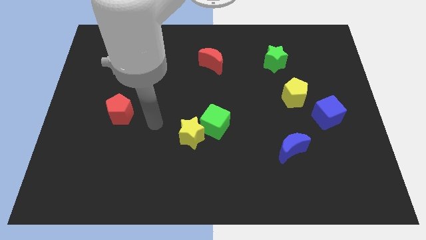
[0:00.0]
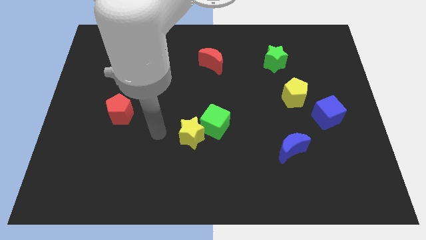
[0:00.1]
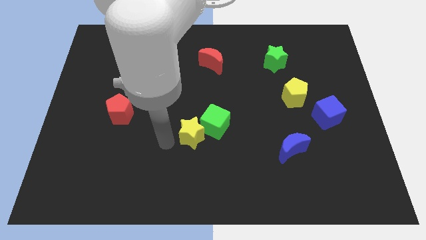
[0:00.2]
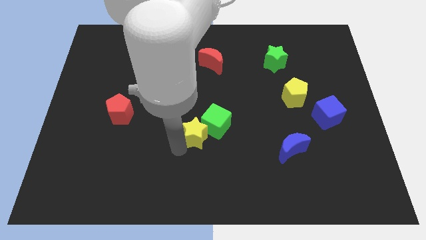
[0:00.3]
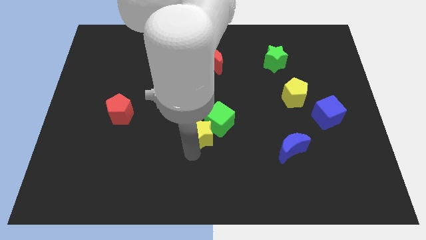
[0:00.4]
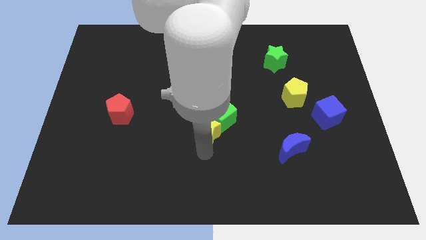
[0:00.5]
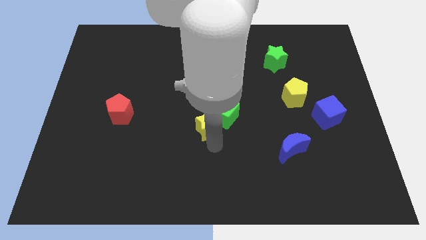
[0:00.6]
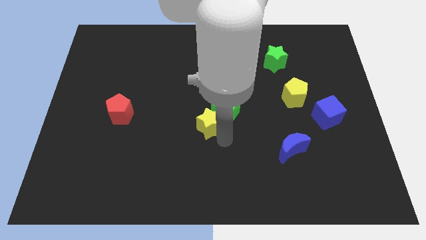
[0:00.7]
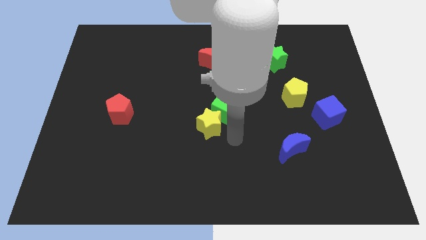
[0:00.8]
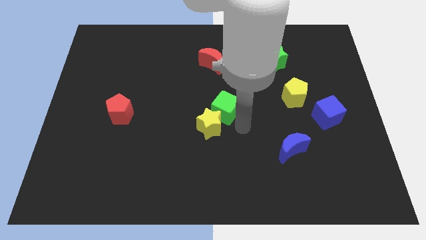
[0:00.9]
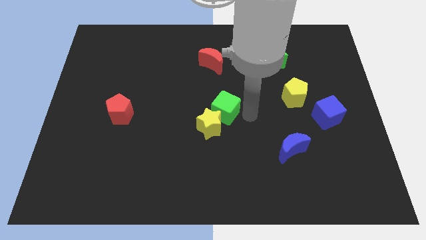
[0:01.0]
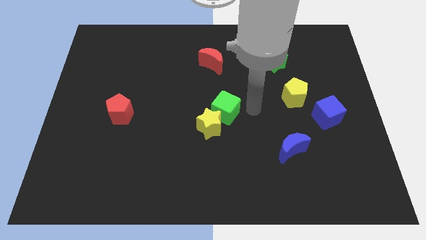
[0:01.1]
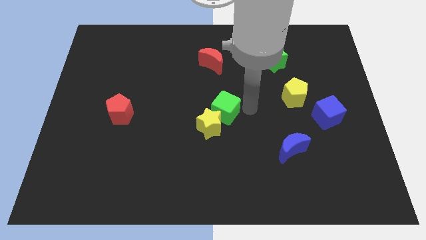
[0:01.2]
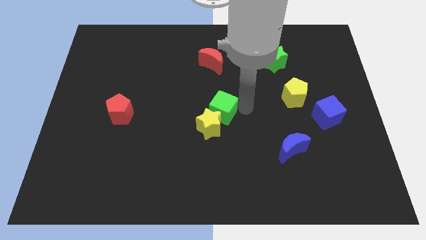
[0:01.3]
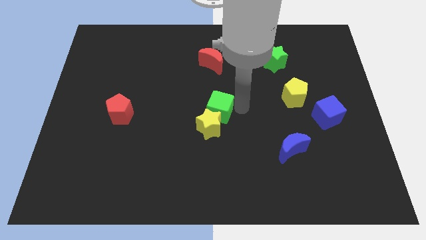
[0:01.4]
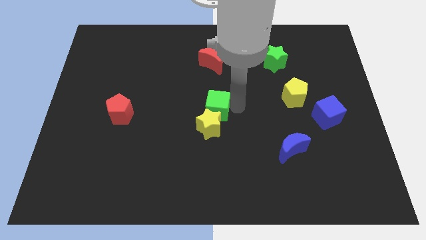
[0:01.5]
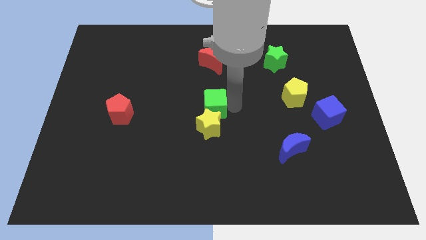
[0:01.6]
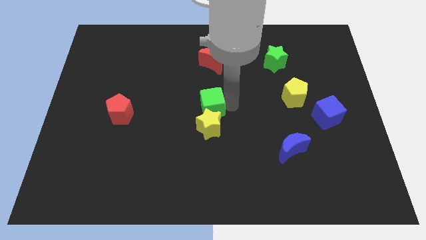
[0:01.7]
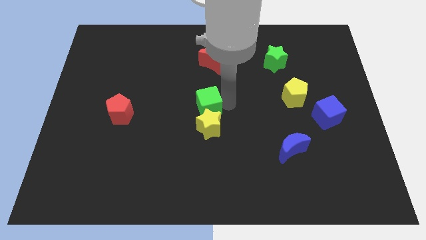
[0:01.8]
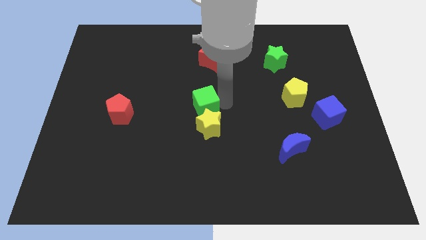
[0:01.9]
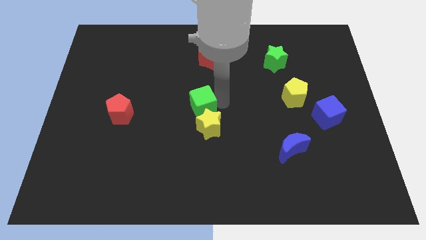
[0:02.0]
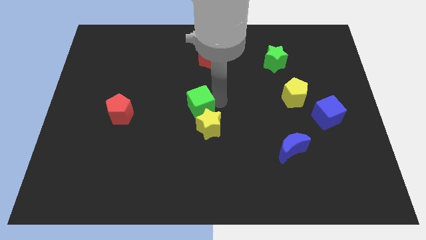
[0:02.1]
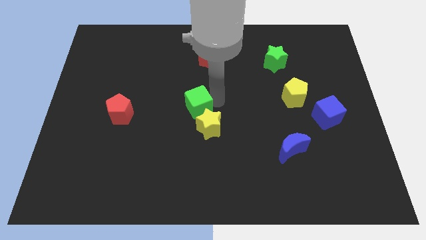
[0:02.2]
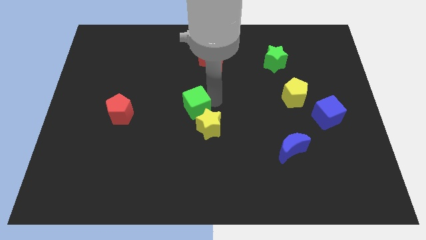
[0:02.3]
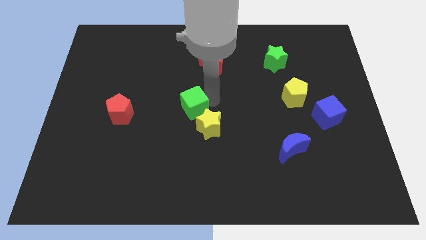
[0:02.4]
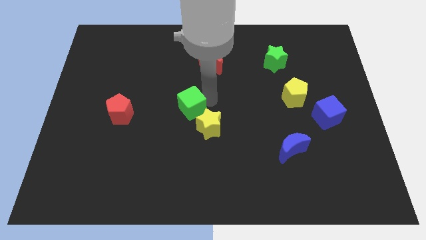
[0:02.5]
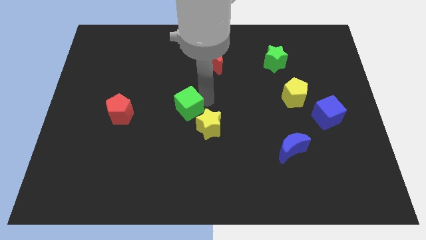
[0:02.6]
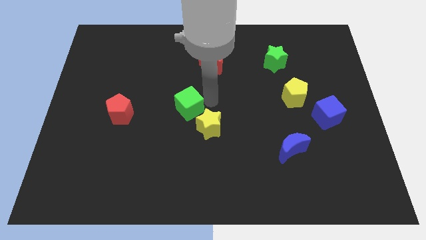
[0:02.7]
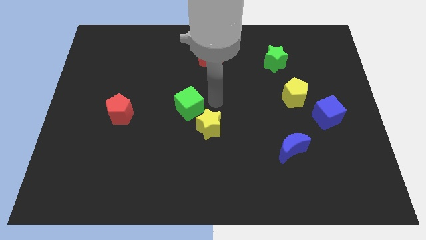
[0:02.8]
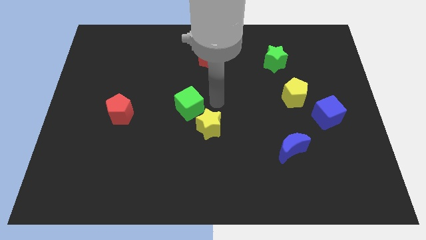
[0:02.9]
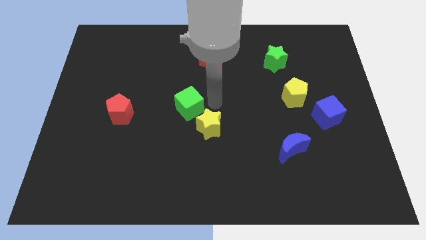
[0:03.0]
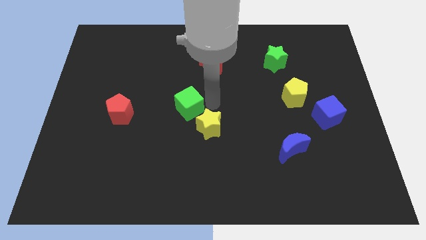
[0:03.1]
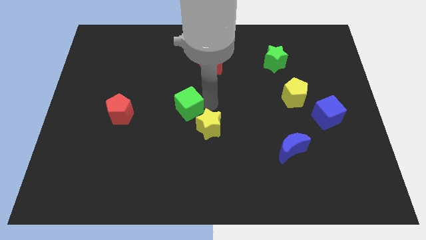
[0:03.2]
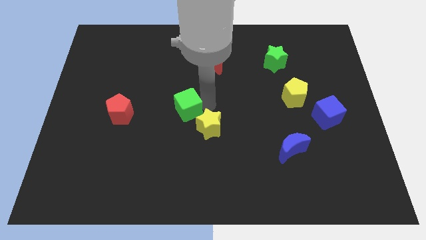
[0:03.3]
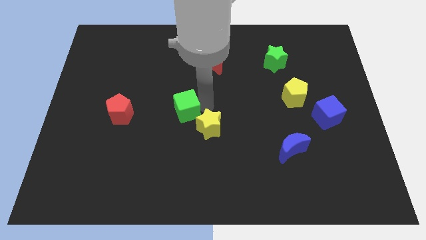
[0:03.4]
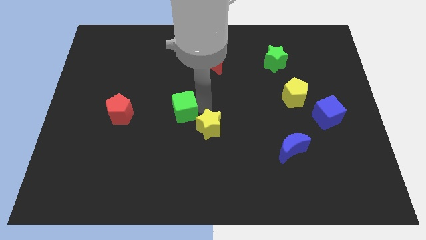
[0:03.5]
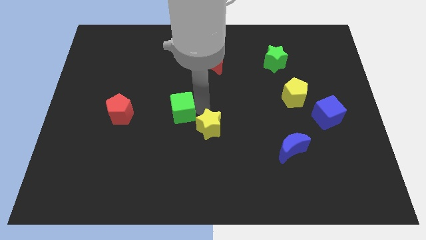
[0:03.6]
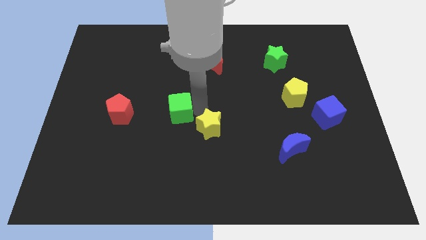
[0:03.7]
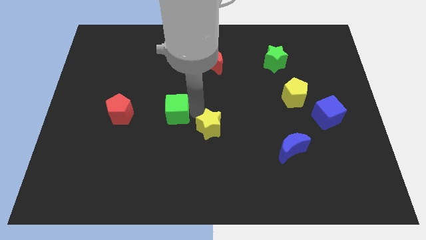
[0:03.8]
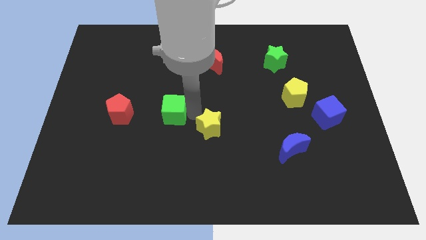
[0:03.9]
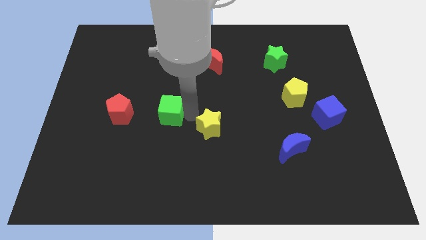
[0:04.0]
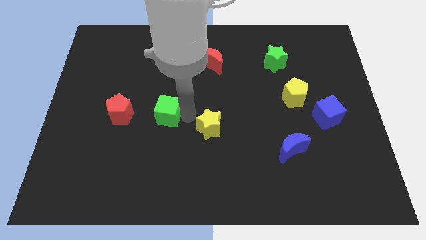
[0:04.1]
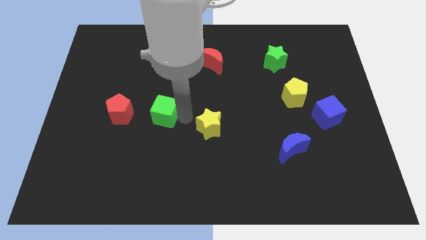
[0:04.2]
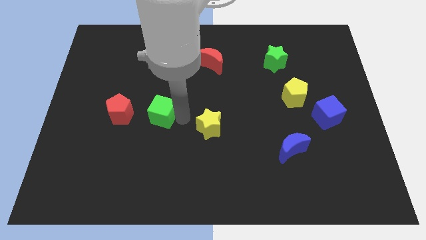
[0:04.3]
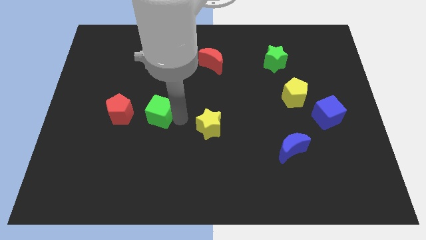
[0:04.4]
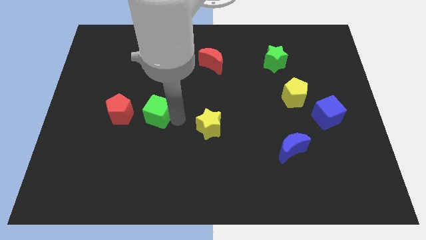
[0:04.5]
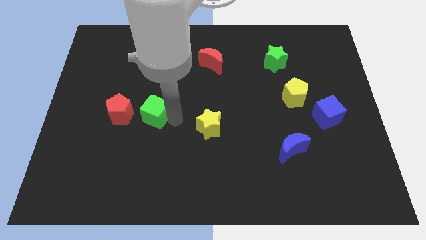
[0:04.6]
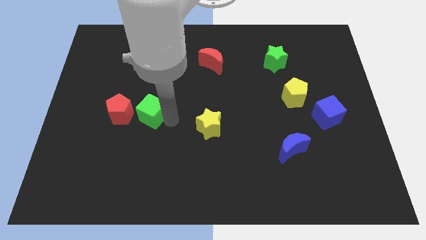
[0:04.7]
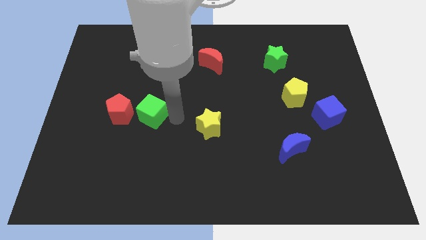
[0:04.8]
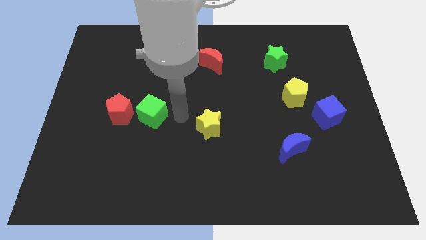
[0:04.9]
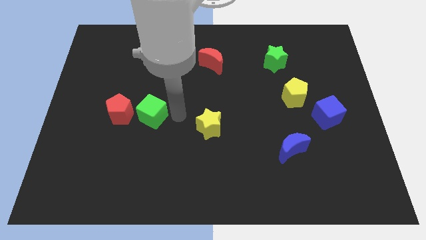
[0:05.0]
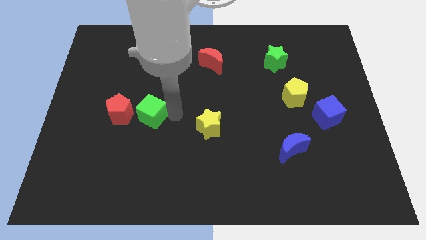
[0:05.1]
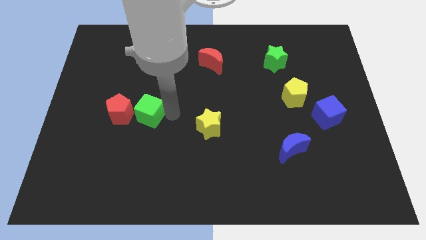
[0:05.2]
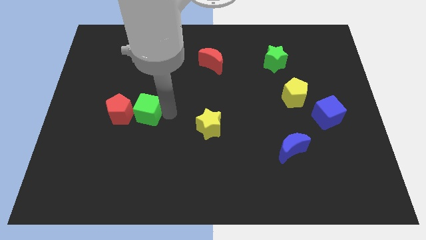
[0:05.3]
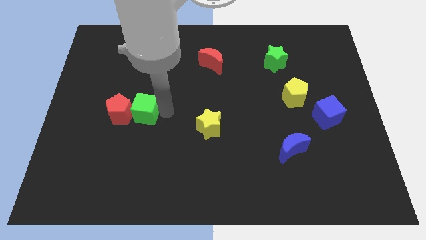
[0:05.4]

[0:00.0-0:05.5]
push the green cube to the red pentagon

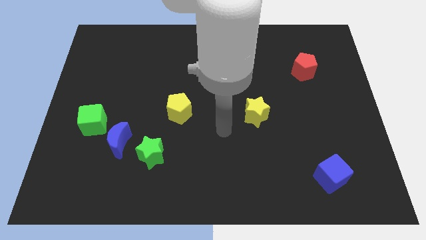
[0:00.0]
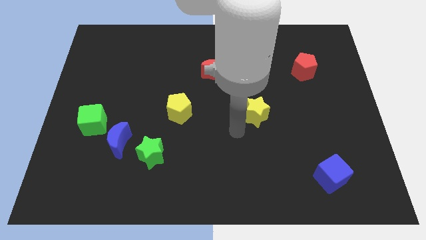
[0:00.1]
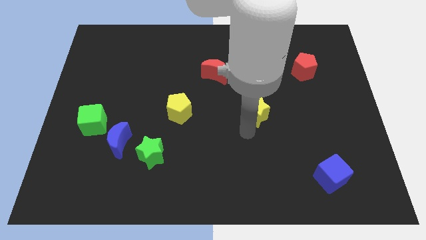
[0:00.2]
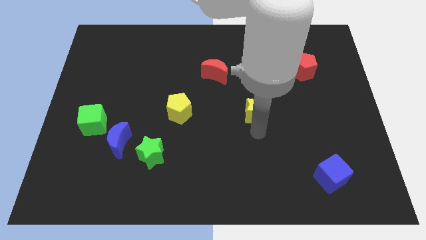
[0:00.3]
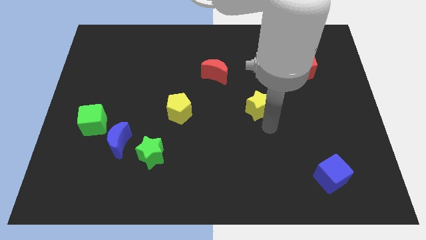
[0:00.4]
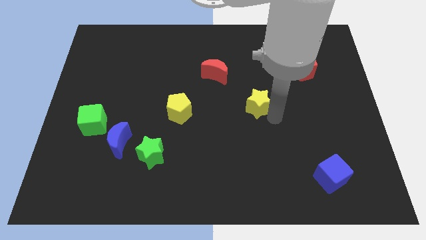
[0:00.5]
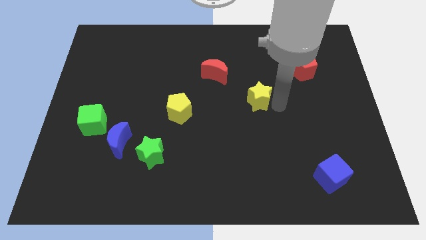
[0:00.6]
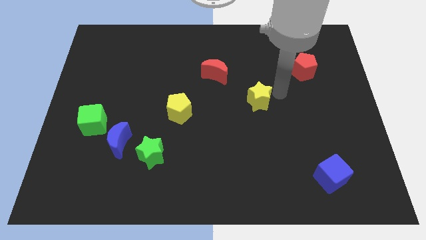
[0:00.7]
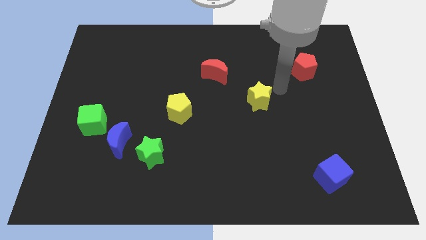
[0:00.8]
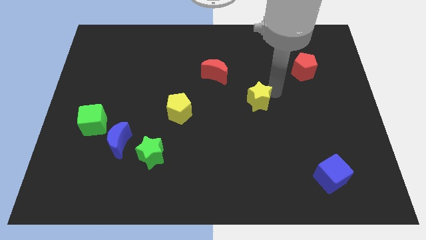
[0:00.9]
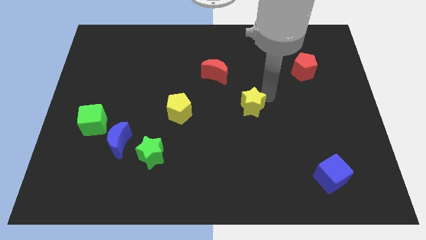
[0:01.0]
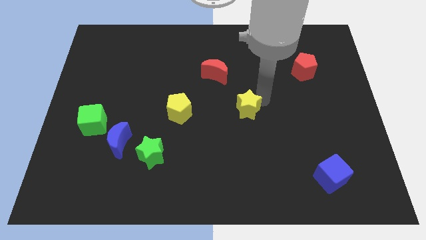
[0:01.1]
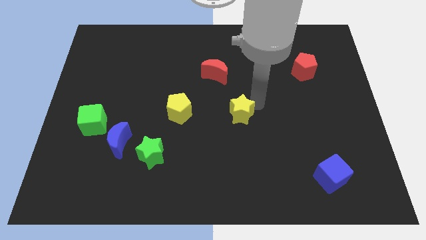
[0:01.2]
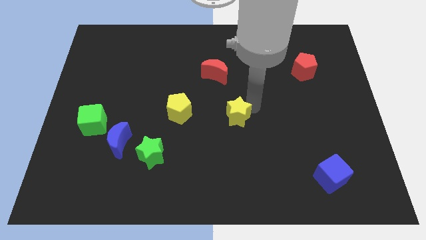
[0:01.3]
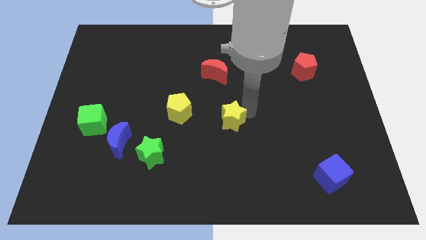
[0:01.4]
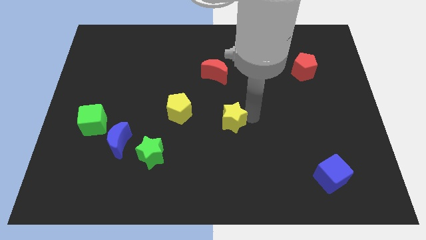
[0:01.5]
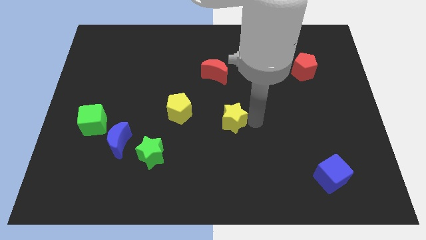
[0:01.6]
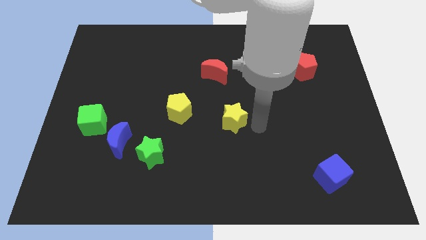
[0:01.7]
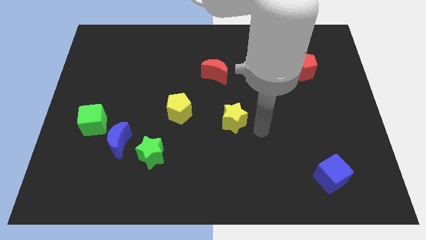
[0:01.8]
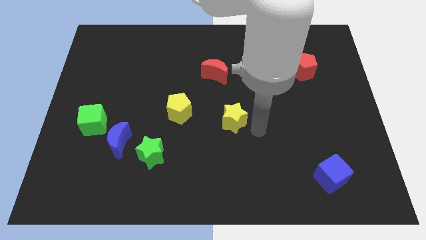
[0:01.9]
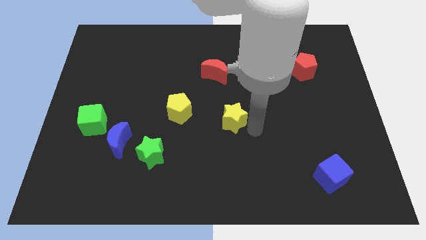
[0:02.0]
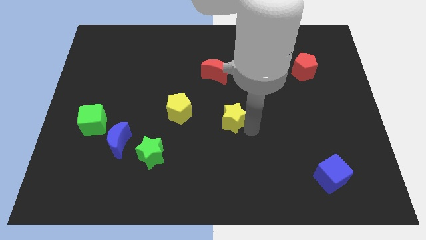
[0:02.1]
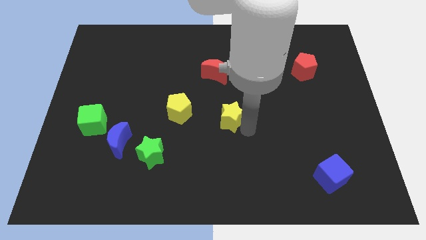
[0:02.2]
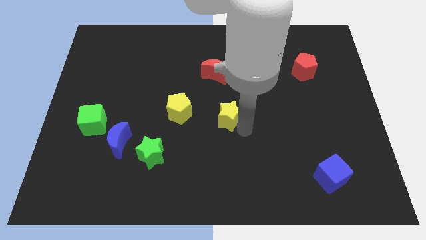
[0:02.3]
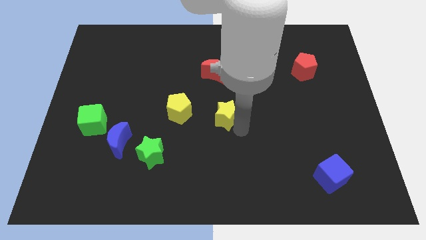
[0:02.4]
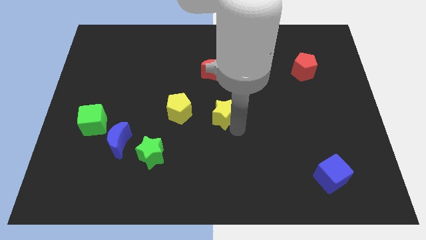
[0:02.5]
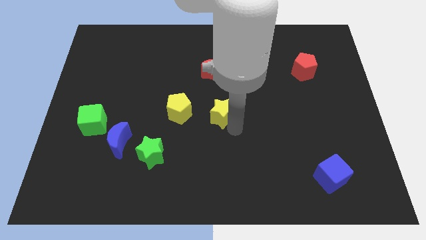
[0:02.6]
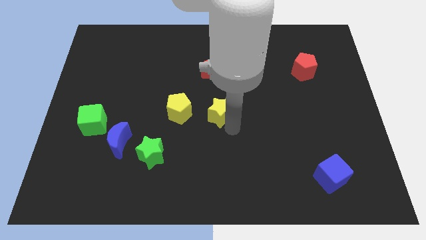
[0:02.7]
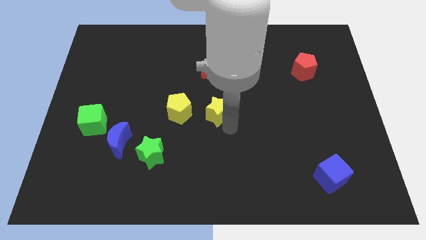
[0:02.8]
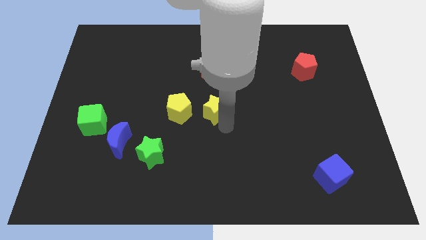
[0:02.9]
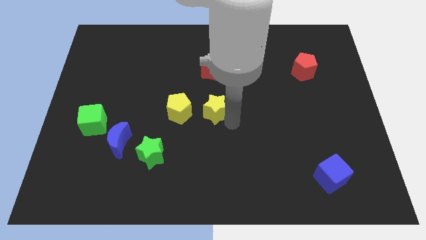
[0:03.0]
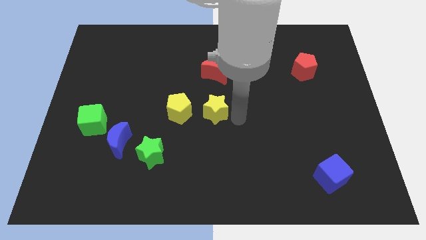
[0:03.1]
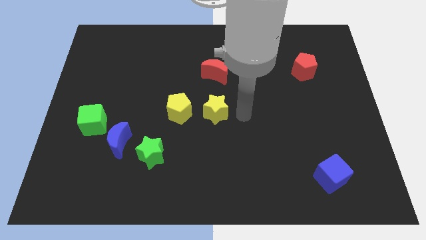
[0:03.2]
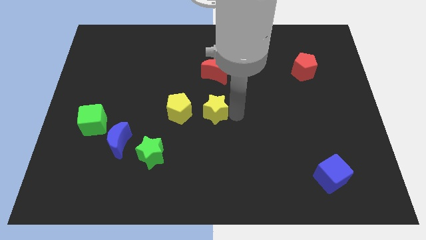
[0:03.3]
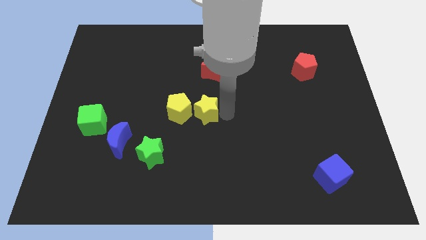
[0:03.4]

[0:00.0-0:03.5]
put the yellow star close to the yellow pentagon
